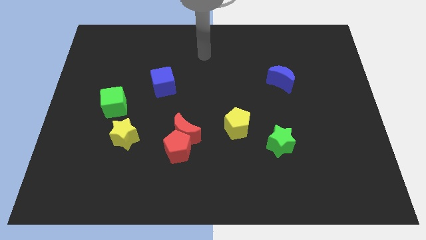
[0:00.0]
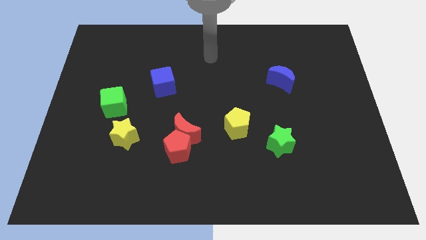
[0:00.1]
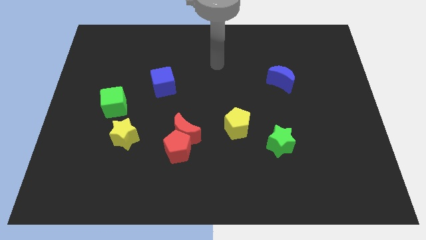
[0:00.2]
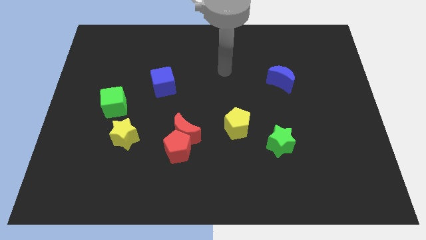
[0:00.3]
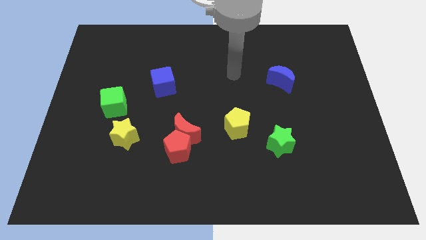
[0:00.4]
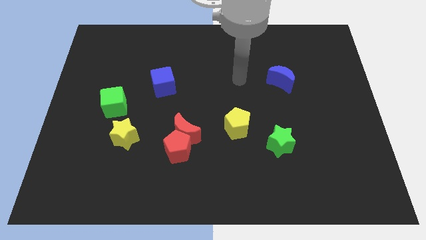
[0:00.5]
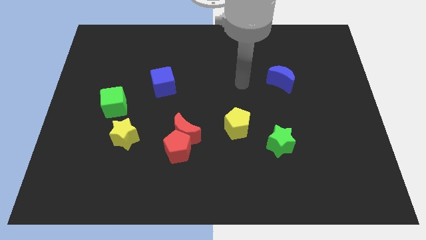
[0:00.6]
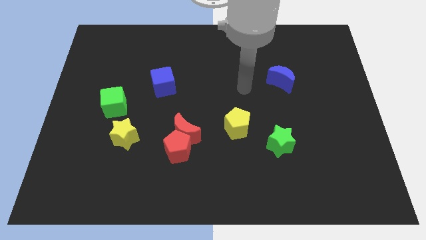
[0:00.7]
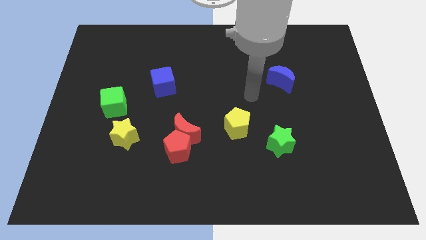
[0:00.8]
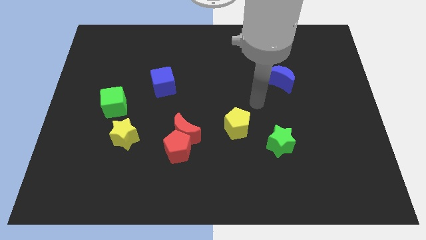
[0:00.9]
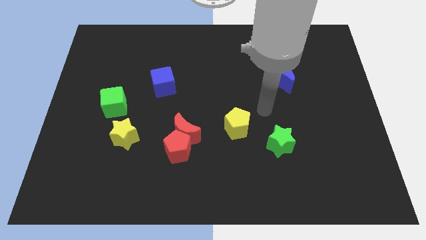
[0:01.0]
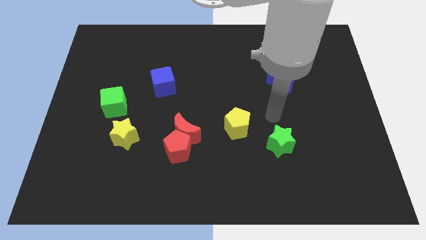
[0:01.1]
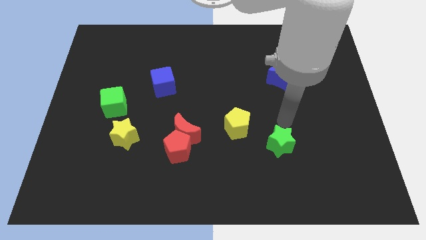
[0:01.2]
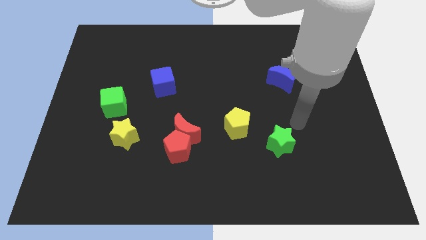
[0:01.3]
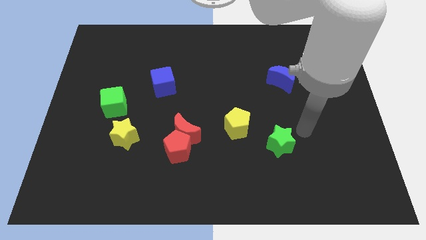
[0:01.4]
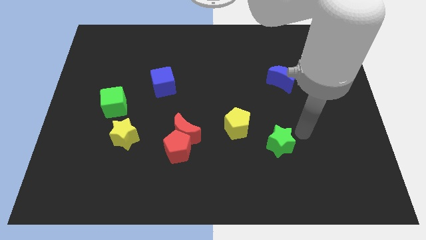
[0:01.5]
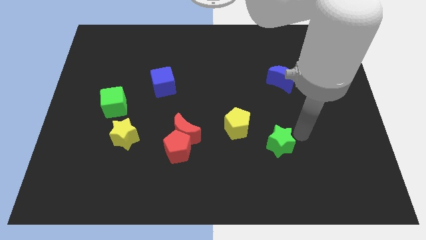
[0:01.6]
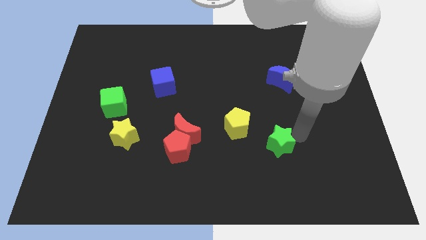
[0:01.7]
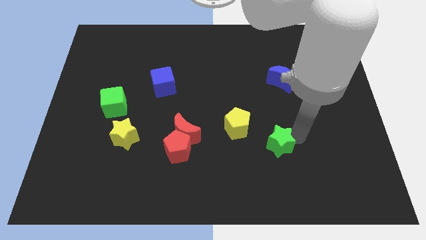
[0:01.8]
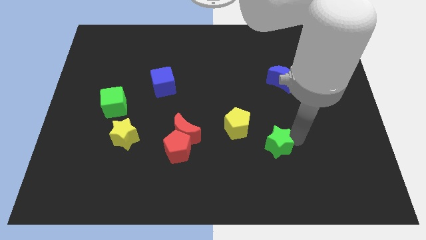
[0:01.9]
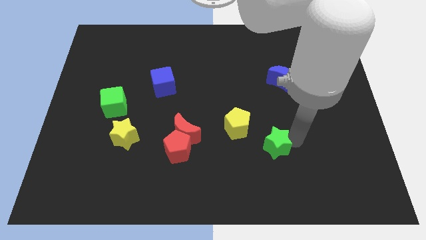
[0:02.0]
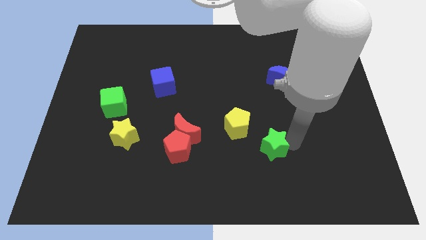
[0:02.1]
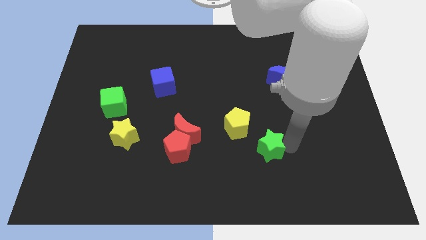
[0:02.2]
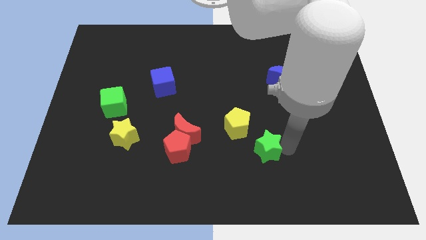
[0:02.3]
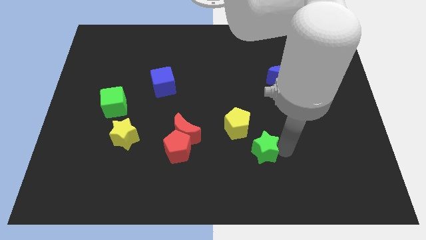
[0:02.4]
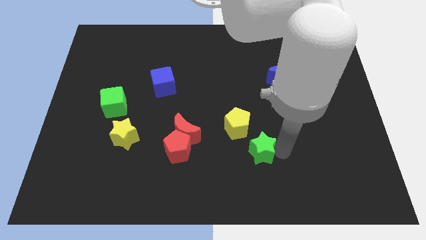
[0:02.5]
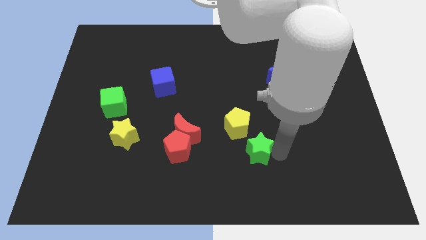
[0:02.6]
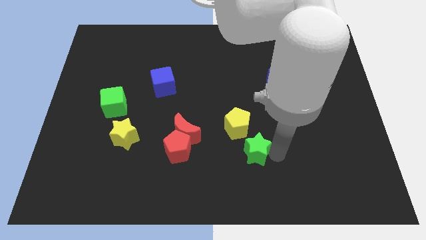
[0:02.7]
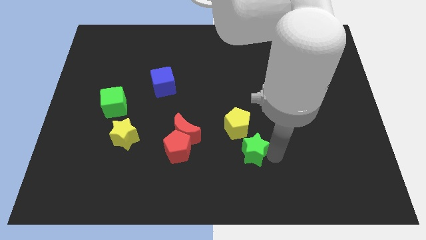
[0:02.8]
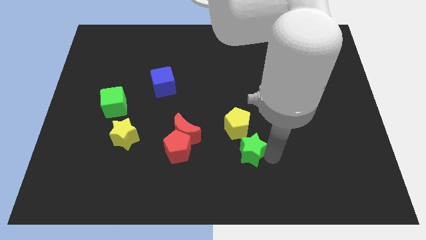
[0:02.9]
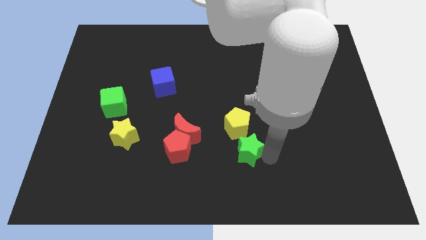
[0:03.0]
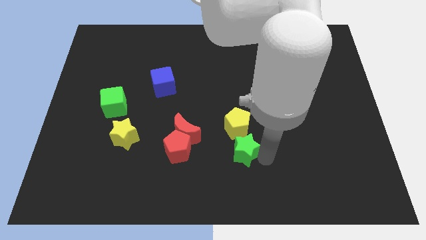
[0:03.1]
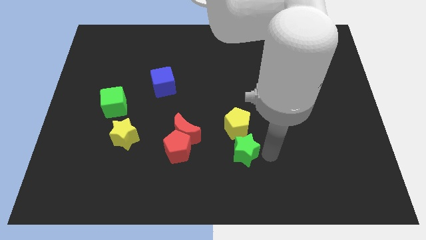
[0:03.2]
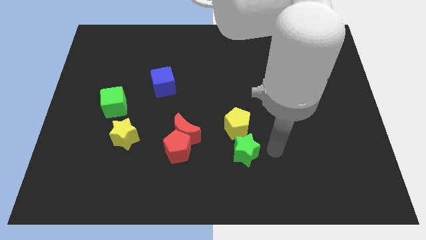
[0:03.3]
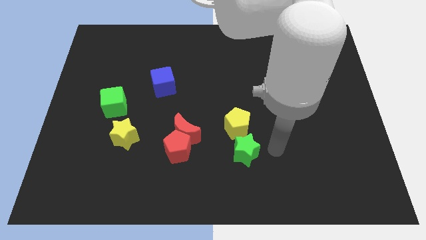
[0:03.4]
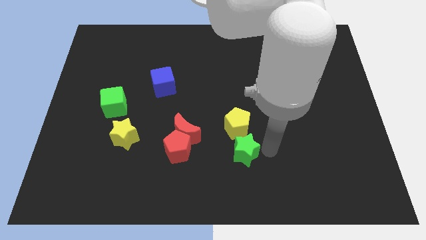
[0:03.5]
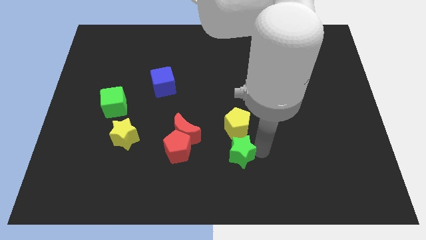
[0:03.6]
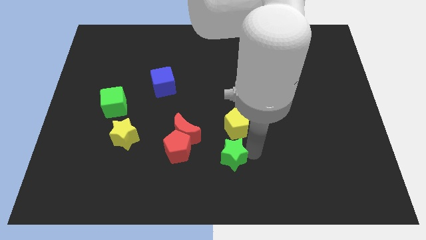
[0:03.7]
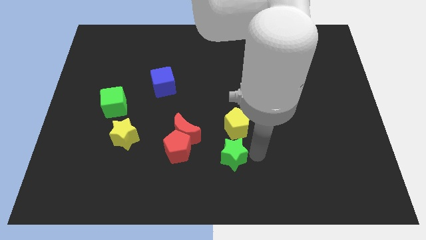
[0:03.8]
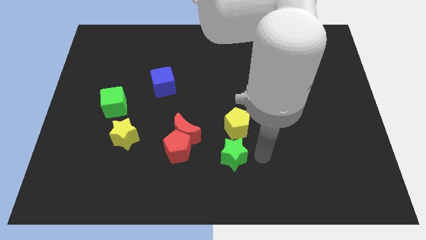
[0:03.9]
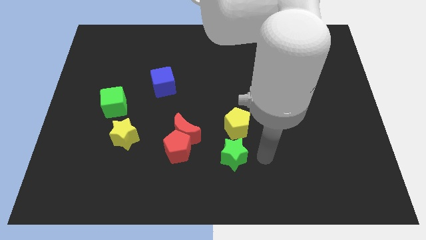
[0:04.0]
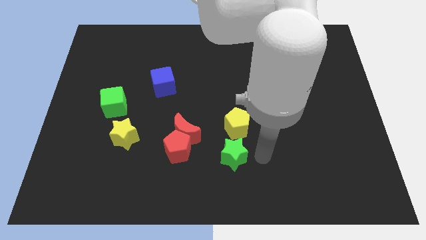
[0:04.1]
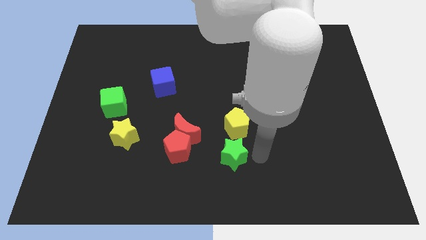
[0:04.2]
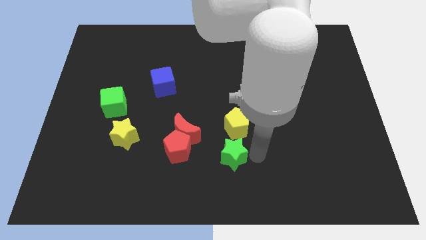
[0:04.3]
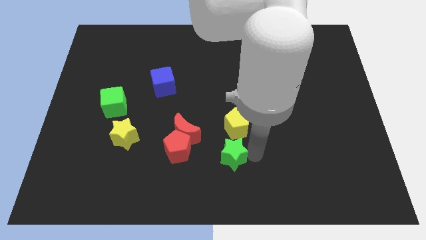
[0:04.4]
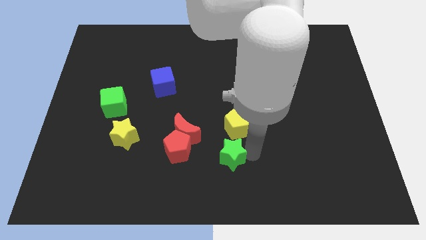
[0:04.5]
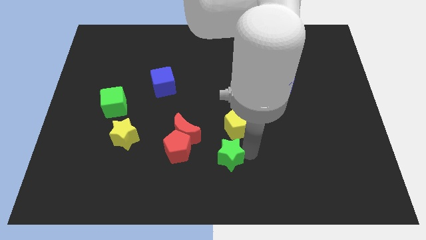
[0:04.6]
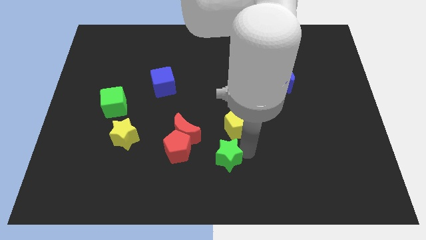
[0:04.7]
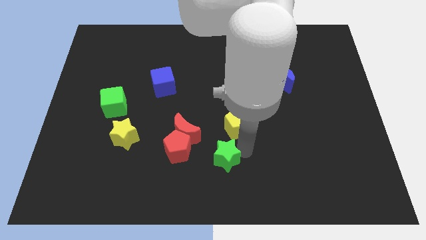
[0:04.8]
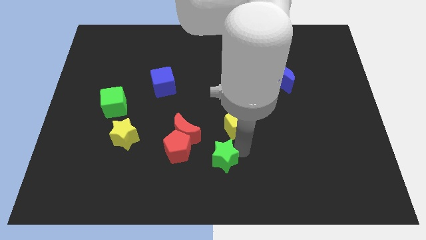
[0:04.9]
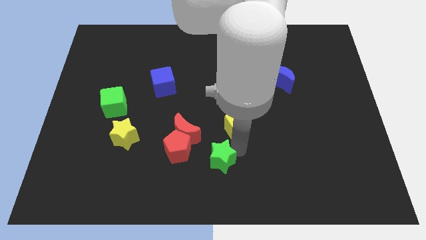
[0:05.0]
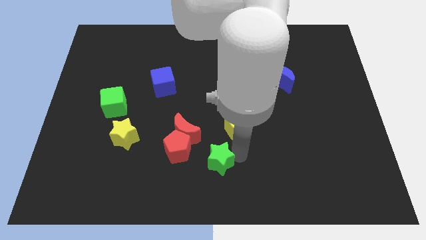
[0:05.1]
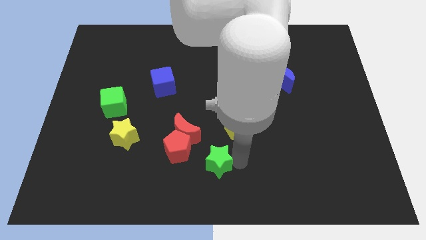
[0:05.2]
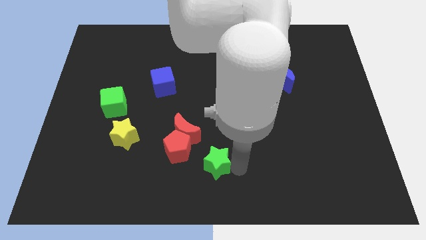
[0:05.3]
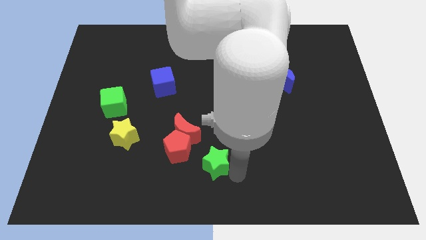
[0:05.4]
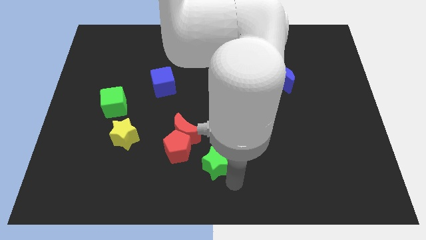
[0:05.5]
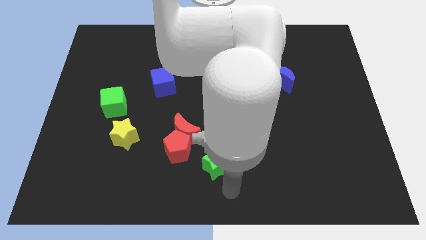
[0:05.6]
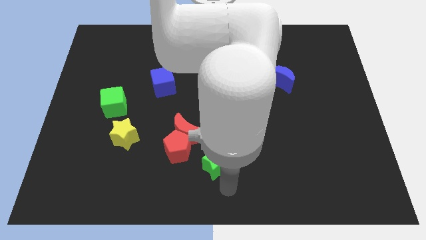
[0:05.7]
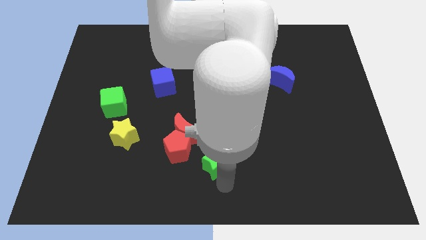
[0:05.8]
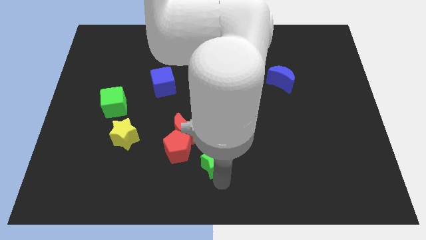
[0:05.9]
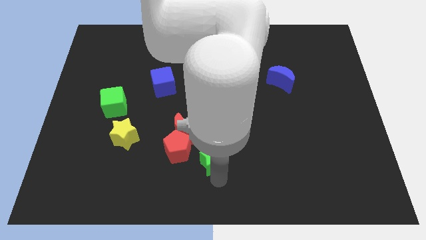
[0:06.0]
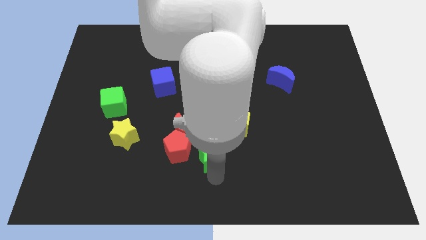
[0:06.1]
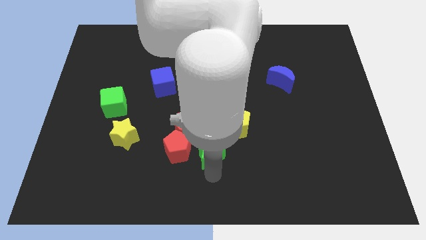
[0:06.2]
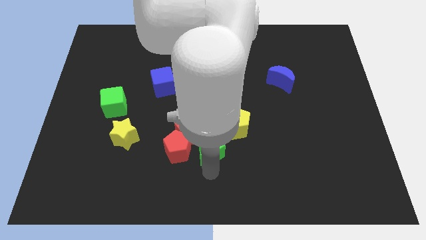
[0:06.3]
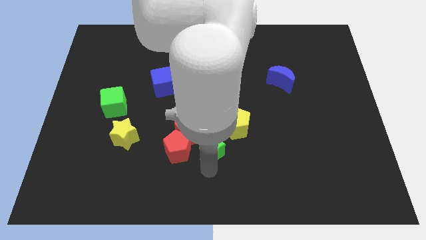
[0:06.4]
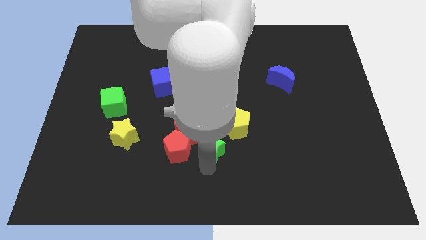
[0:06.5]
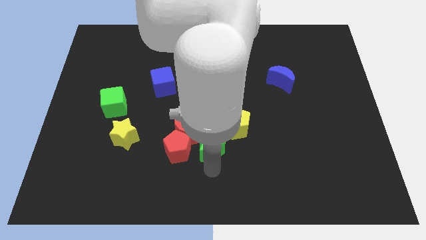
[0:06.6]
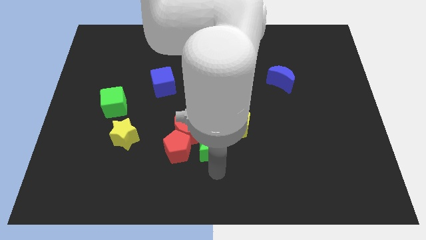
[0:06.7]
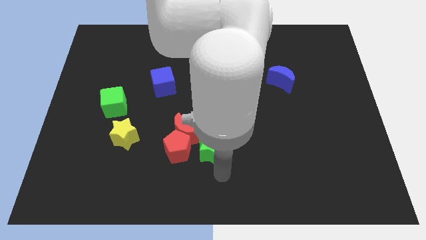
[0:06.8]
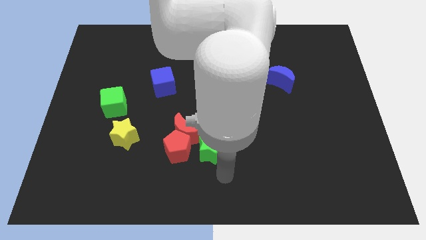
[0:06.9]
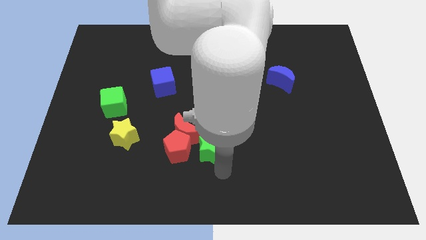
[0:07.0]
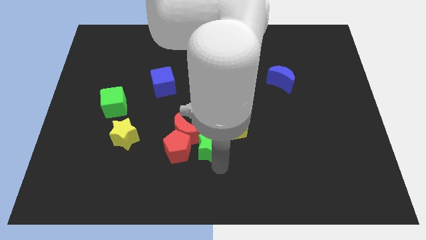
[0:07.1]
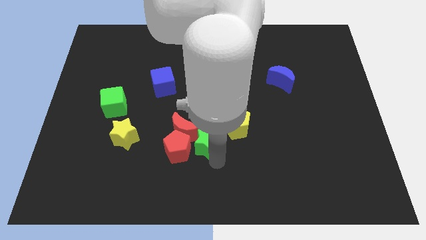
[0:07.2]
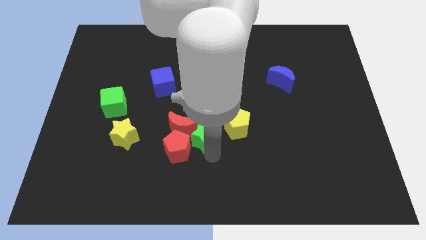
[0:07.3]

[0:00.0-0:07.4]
move the green star next to the red moon
